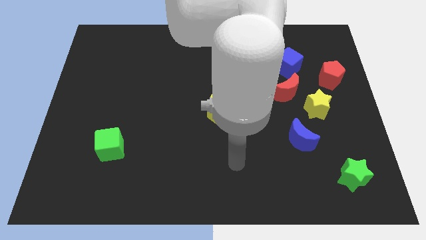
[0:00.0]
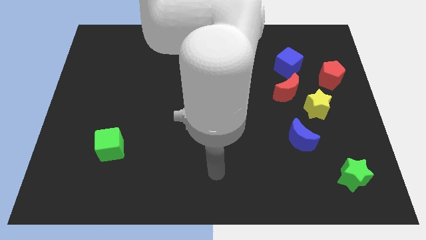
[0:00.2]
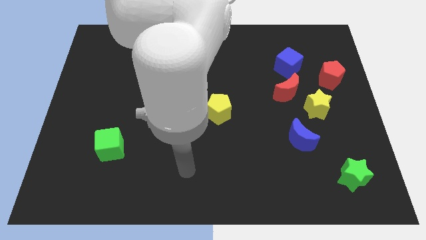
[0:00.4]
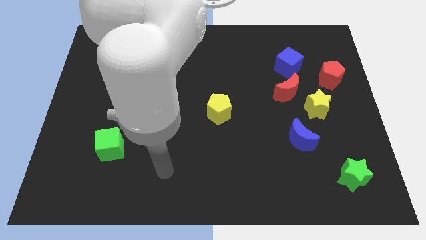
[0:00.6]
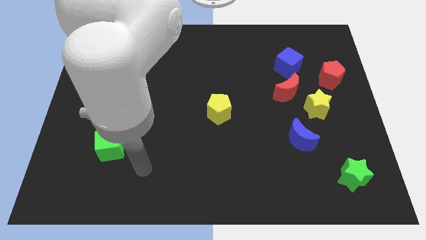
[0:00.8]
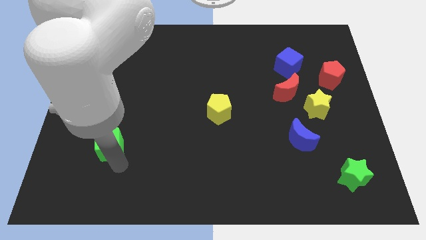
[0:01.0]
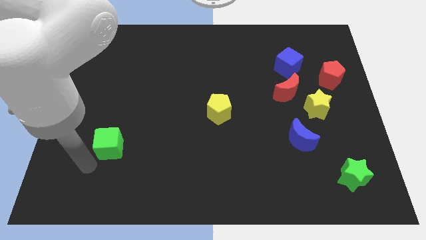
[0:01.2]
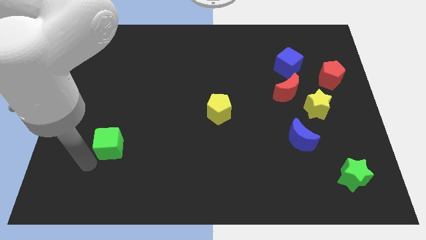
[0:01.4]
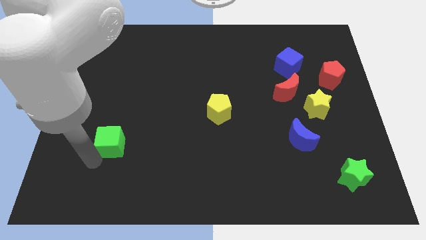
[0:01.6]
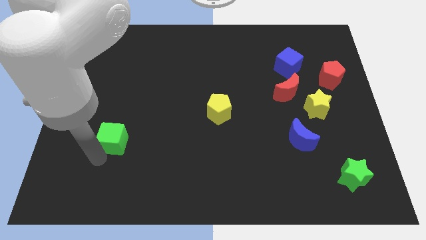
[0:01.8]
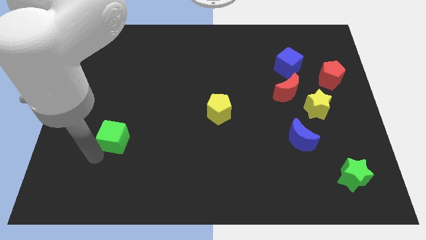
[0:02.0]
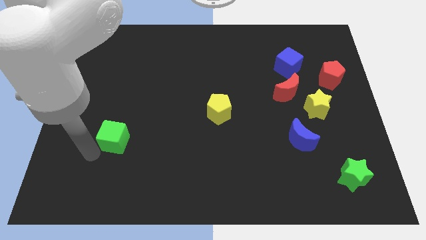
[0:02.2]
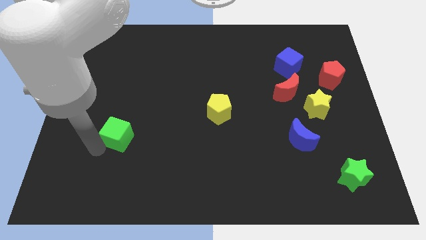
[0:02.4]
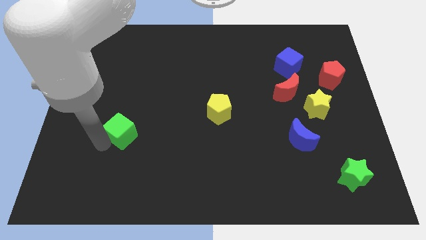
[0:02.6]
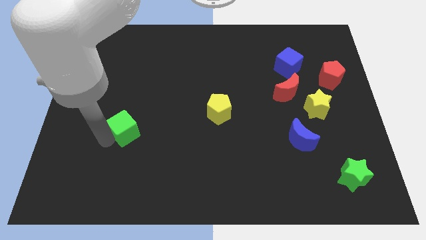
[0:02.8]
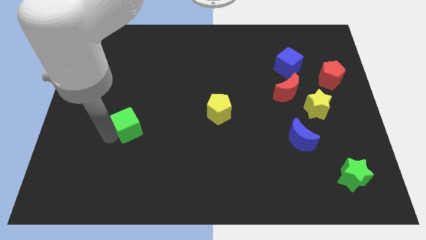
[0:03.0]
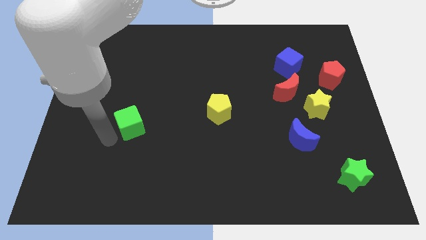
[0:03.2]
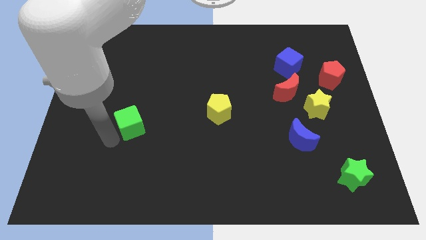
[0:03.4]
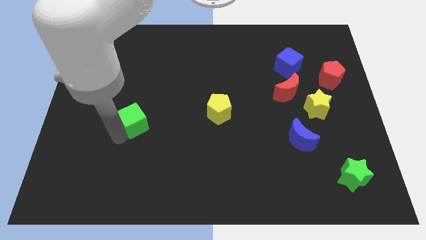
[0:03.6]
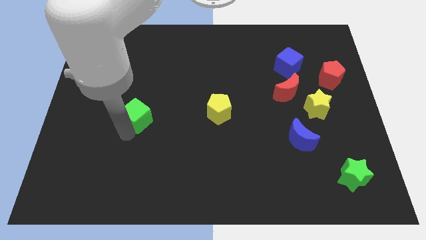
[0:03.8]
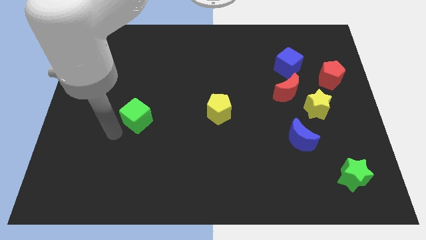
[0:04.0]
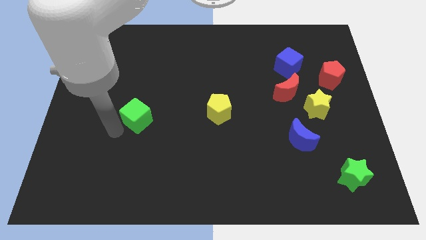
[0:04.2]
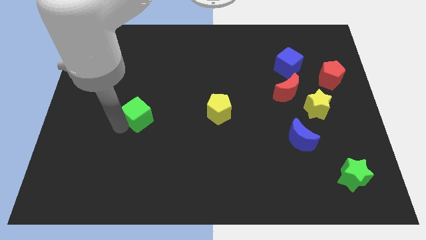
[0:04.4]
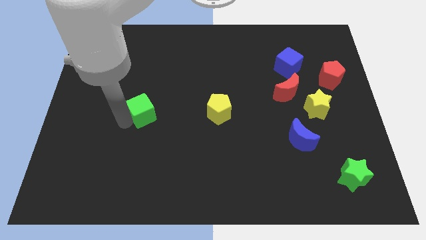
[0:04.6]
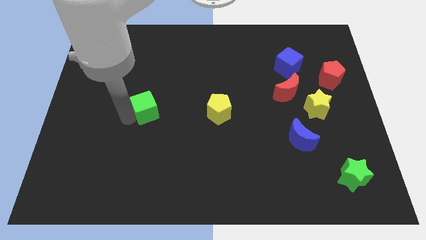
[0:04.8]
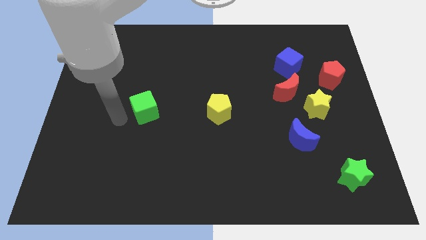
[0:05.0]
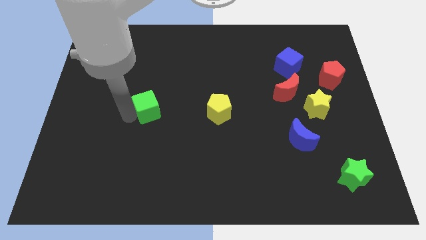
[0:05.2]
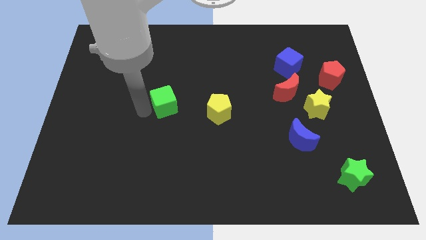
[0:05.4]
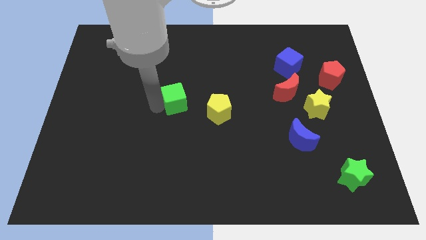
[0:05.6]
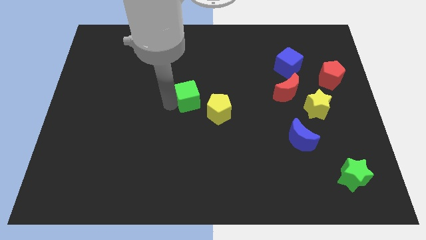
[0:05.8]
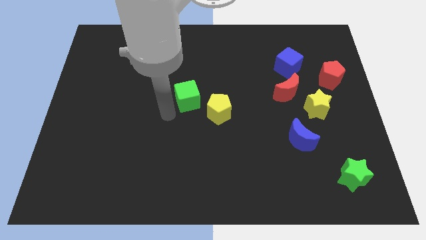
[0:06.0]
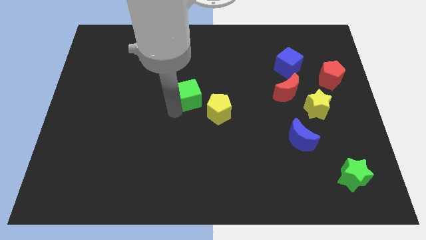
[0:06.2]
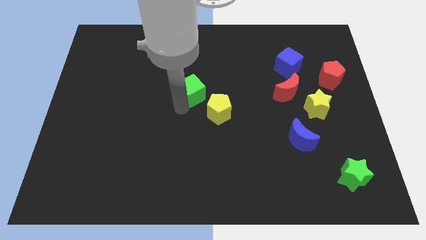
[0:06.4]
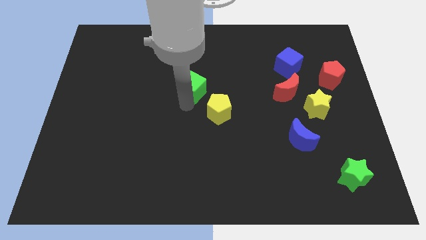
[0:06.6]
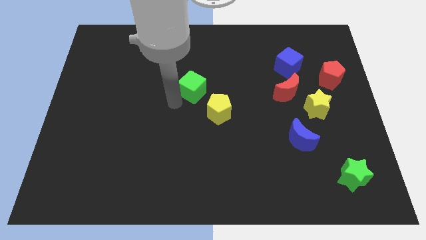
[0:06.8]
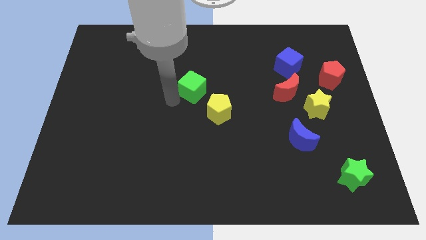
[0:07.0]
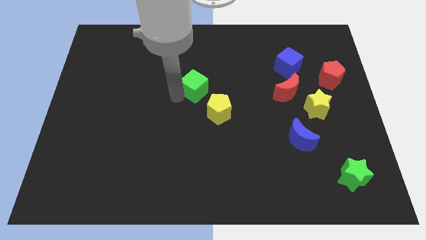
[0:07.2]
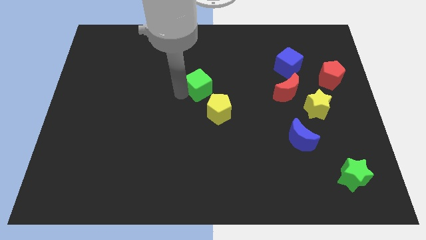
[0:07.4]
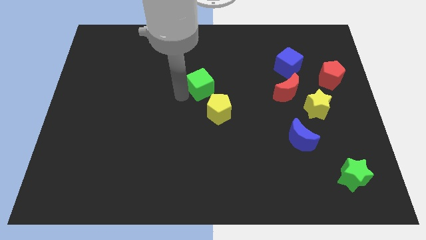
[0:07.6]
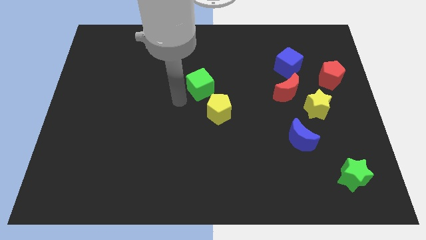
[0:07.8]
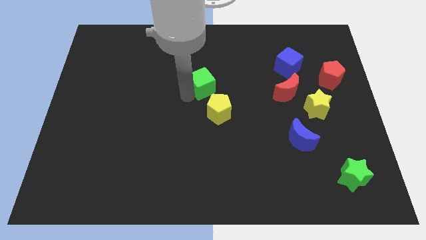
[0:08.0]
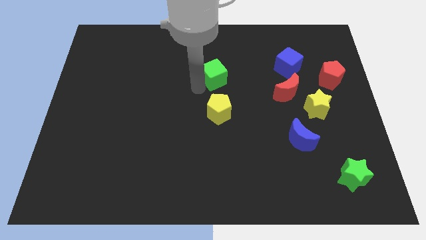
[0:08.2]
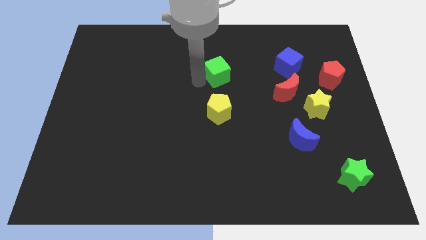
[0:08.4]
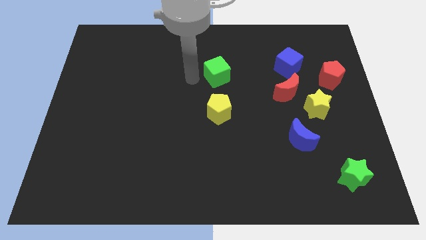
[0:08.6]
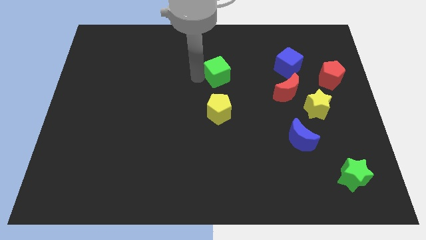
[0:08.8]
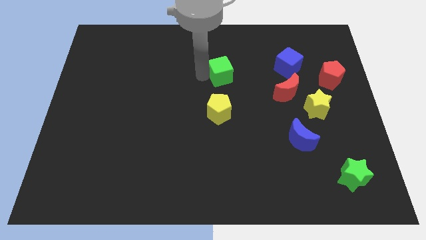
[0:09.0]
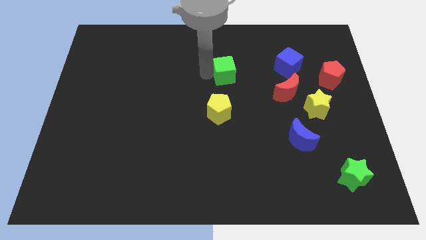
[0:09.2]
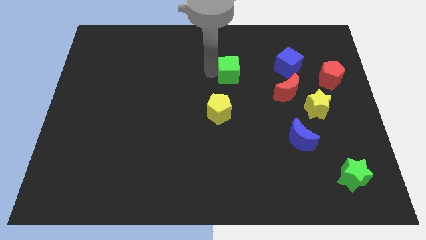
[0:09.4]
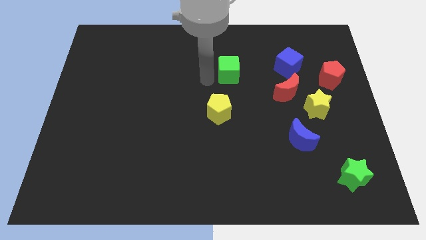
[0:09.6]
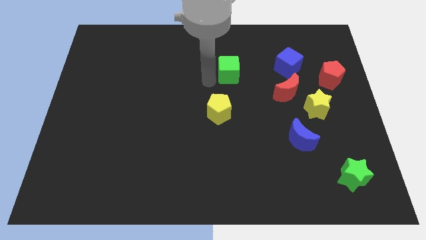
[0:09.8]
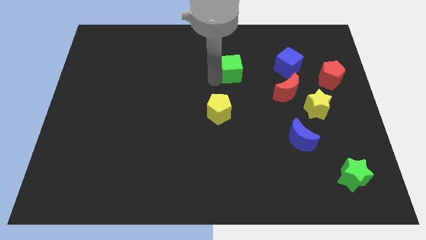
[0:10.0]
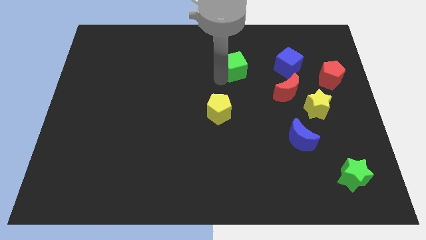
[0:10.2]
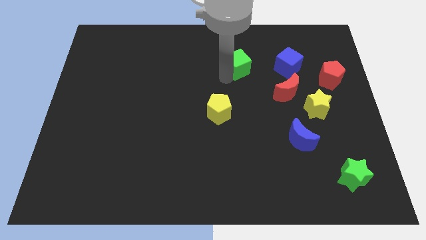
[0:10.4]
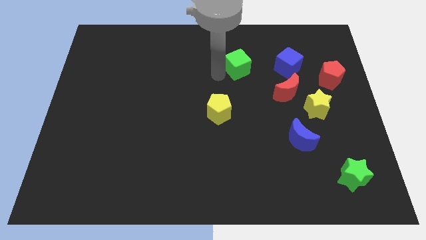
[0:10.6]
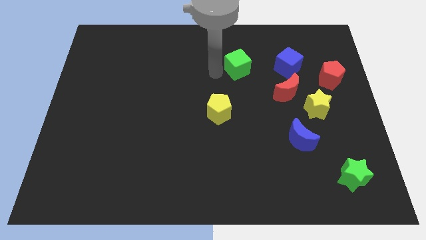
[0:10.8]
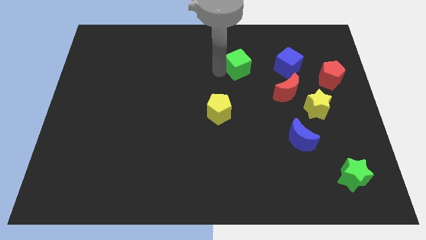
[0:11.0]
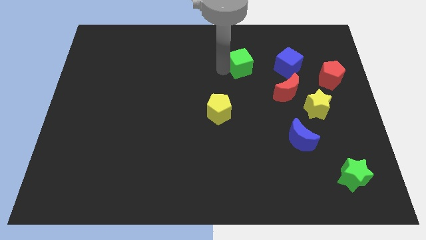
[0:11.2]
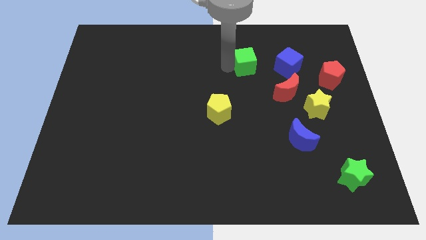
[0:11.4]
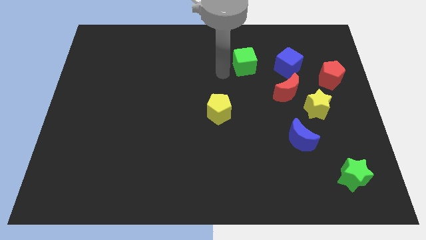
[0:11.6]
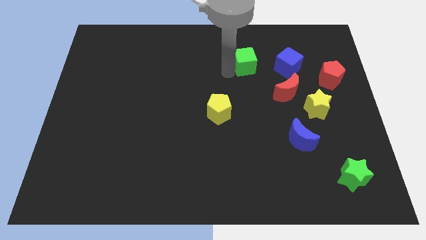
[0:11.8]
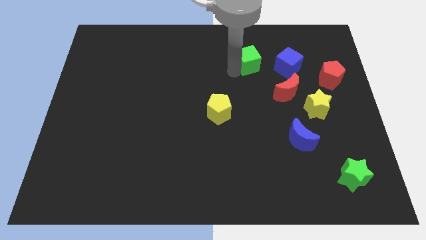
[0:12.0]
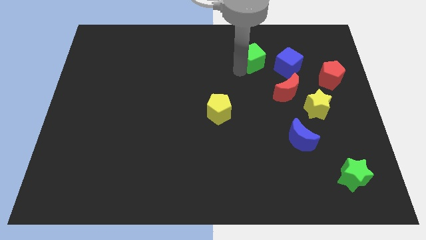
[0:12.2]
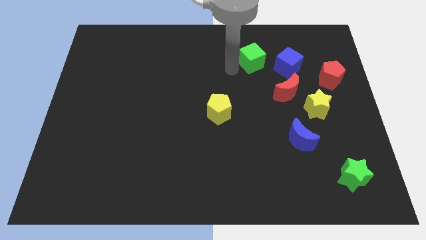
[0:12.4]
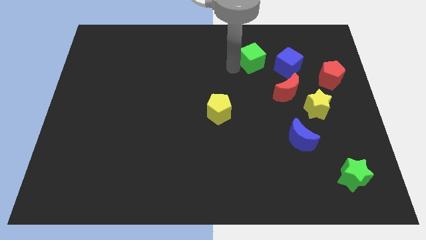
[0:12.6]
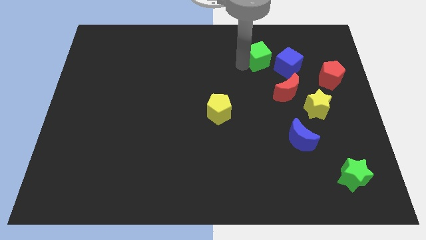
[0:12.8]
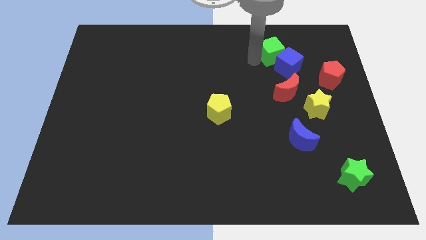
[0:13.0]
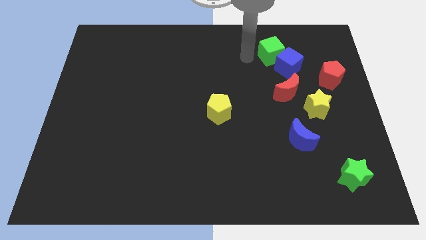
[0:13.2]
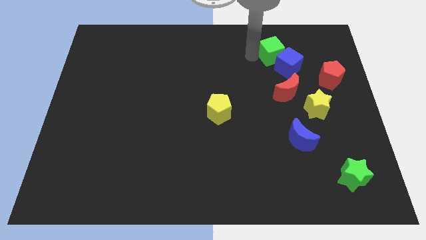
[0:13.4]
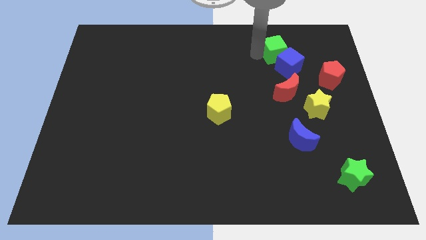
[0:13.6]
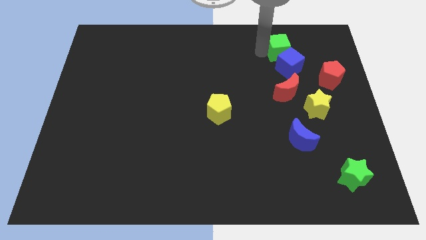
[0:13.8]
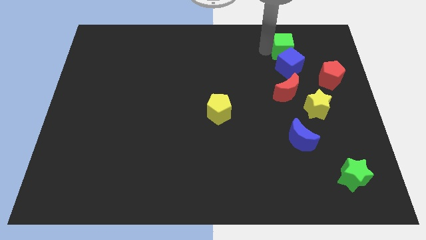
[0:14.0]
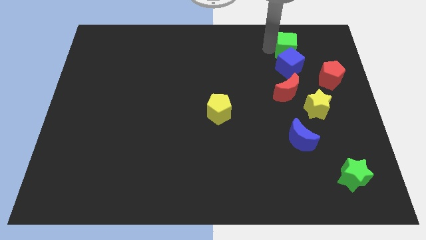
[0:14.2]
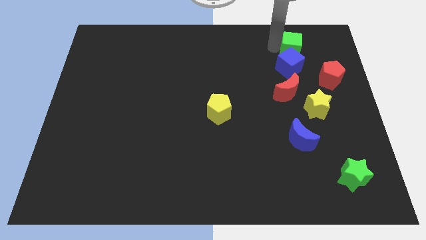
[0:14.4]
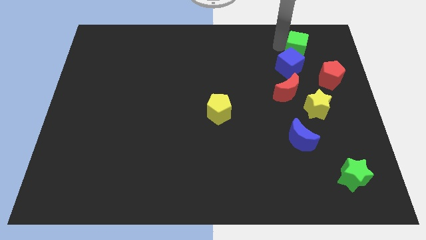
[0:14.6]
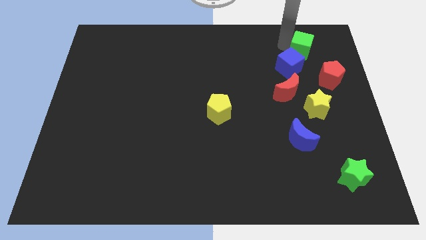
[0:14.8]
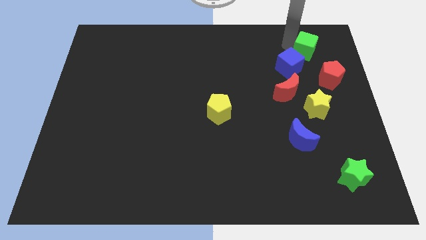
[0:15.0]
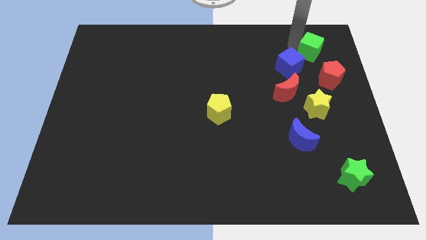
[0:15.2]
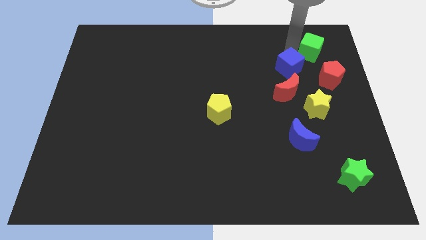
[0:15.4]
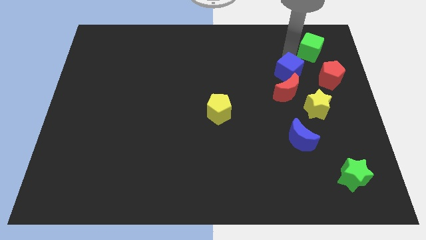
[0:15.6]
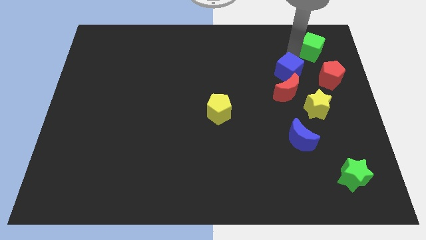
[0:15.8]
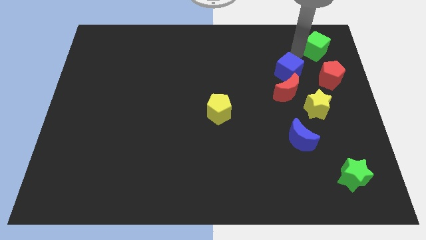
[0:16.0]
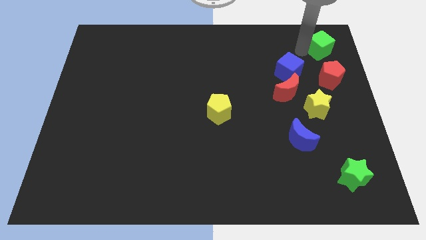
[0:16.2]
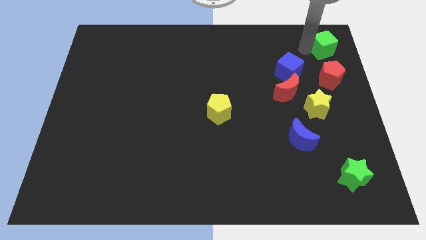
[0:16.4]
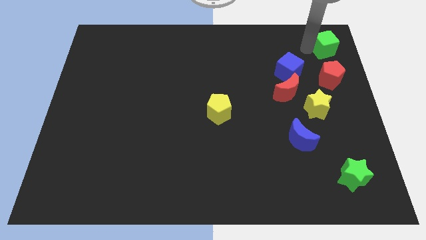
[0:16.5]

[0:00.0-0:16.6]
push the green cube to the top right
